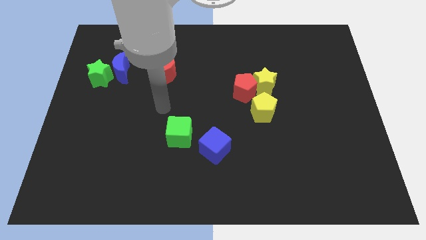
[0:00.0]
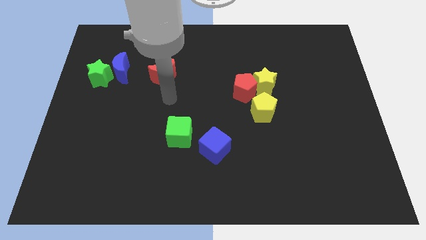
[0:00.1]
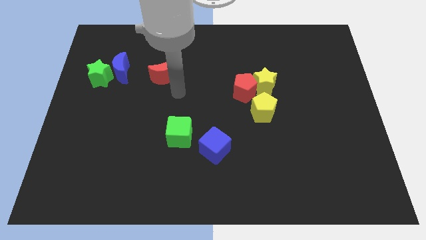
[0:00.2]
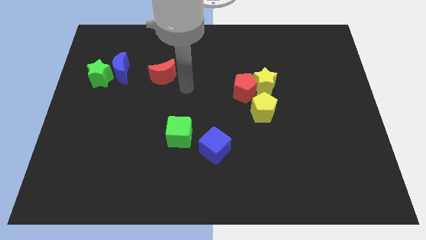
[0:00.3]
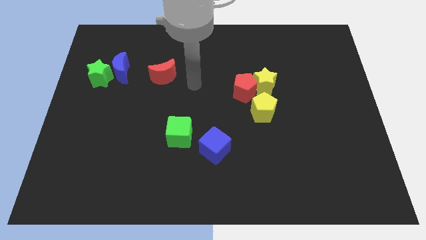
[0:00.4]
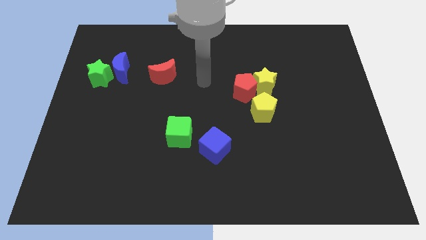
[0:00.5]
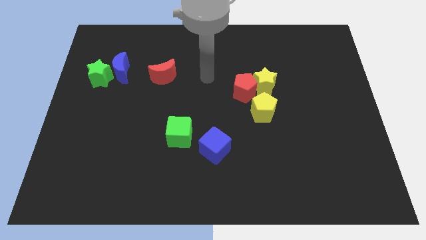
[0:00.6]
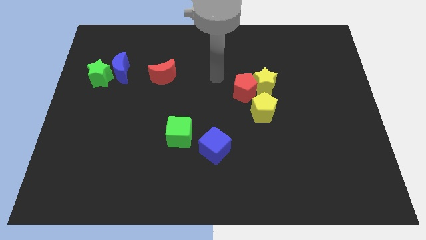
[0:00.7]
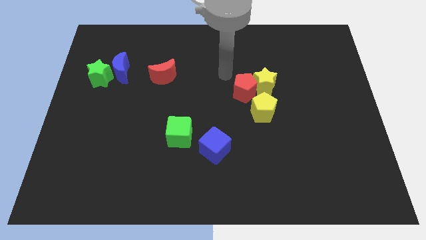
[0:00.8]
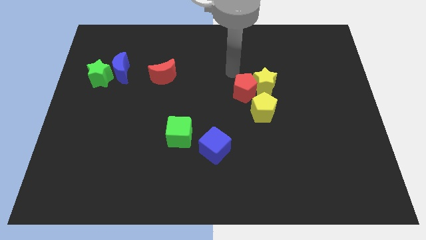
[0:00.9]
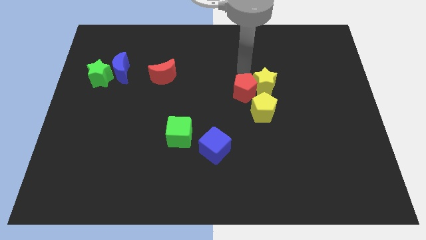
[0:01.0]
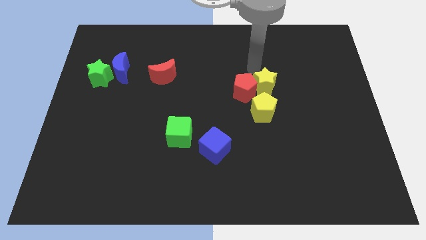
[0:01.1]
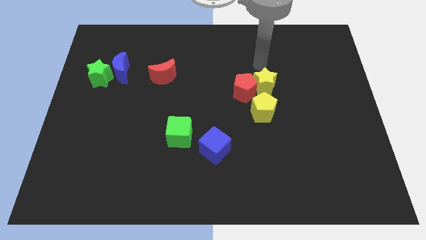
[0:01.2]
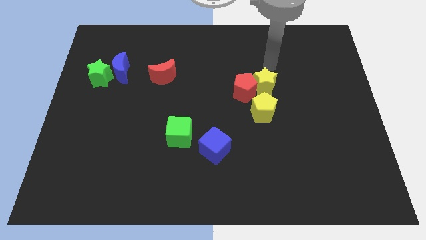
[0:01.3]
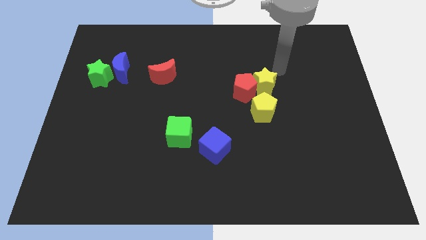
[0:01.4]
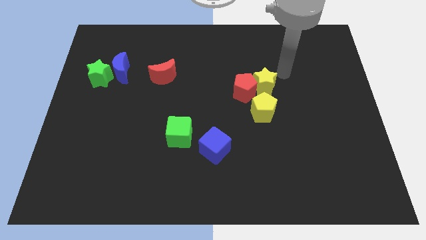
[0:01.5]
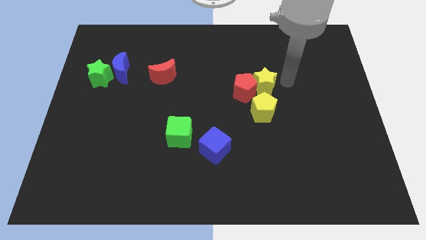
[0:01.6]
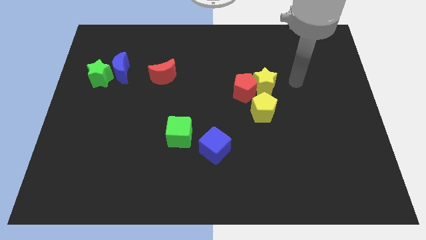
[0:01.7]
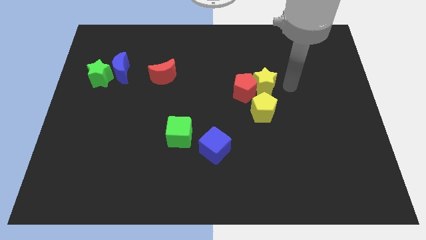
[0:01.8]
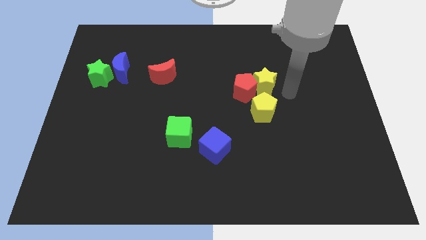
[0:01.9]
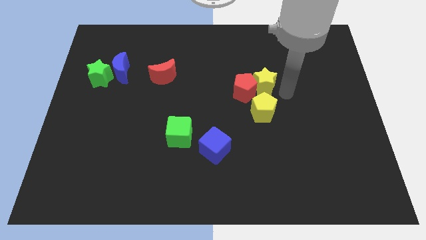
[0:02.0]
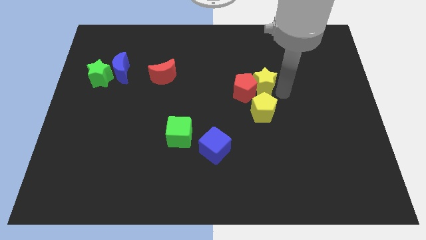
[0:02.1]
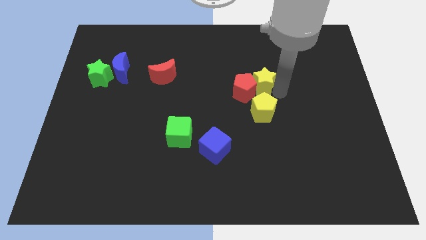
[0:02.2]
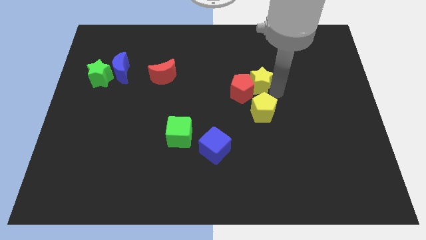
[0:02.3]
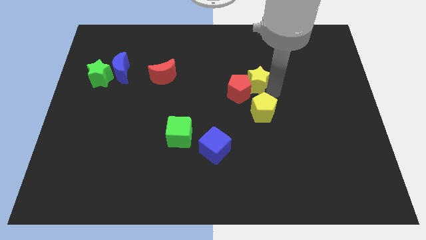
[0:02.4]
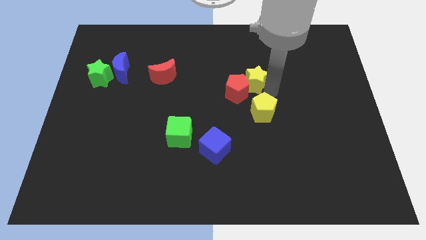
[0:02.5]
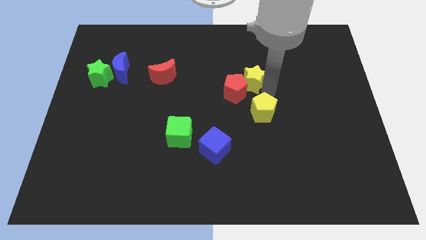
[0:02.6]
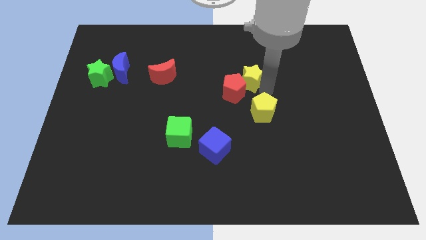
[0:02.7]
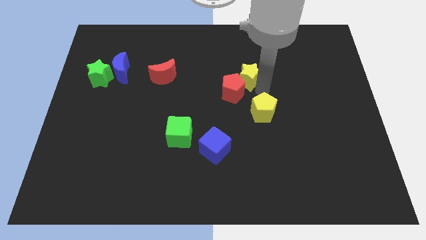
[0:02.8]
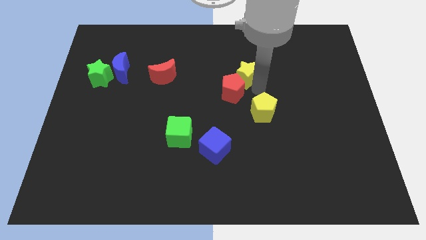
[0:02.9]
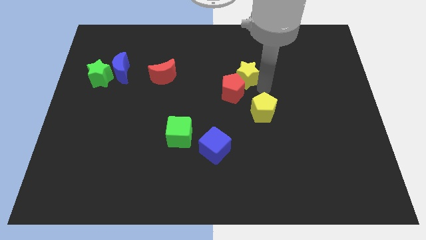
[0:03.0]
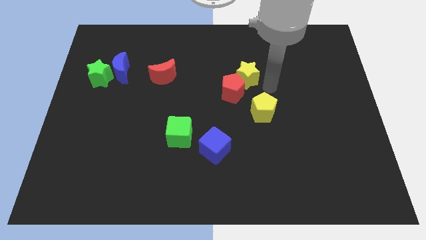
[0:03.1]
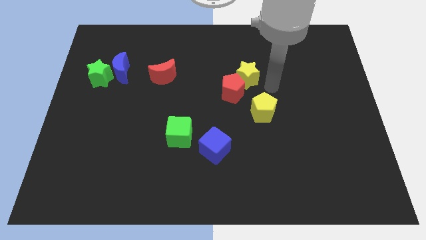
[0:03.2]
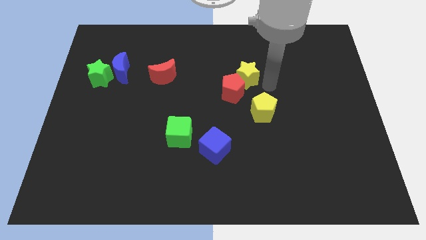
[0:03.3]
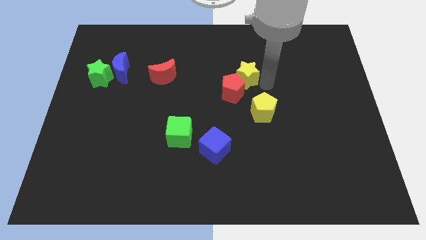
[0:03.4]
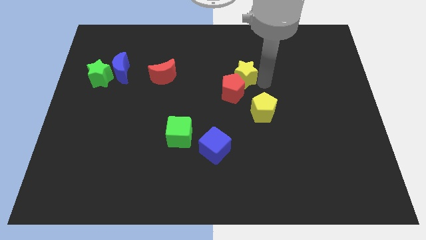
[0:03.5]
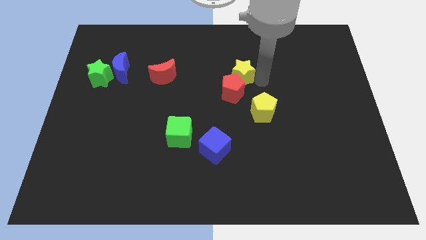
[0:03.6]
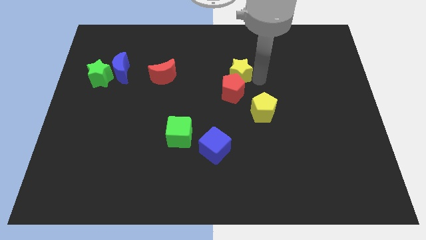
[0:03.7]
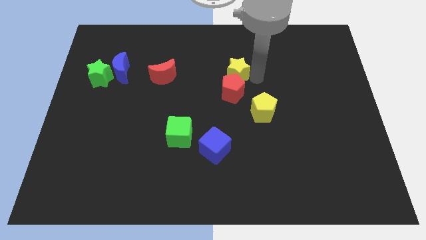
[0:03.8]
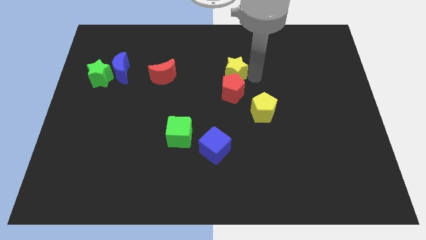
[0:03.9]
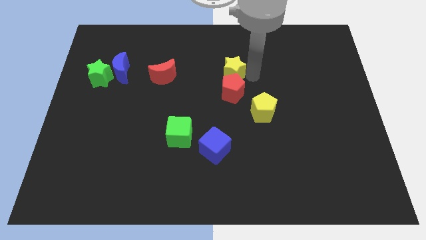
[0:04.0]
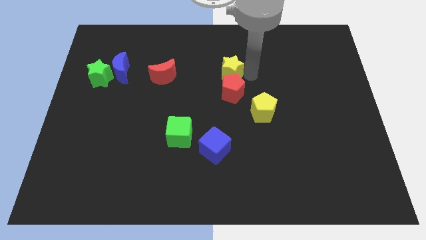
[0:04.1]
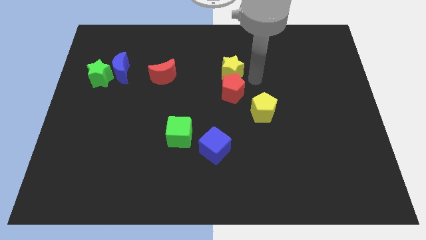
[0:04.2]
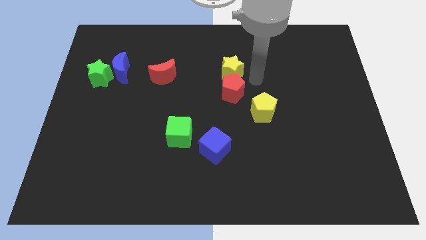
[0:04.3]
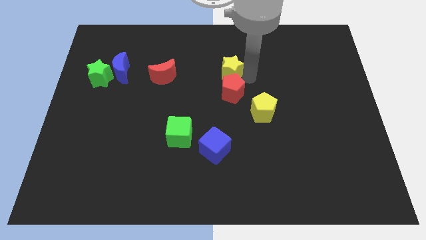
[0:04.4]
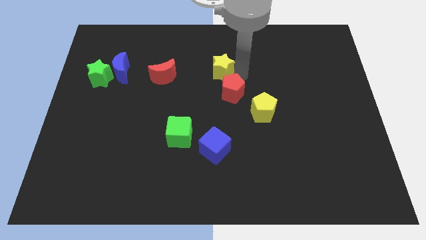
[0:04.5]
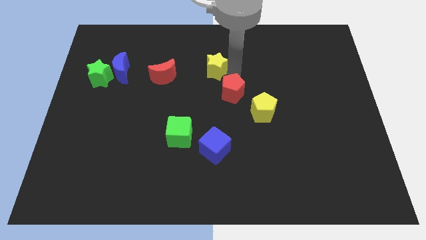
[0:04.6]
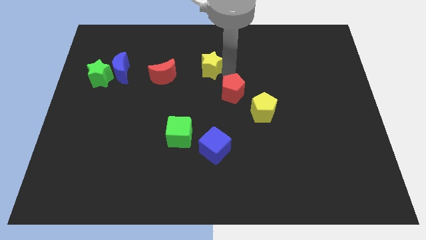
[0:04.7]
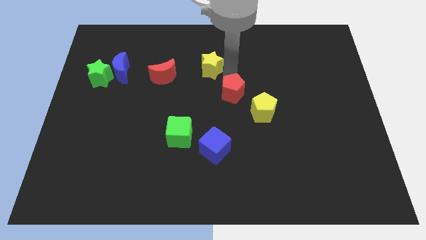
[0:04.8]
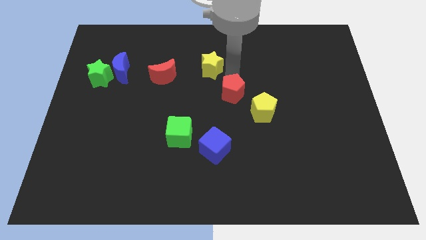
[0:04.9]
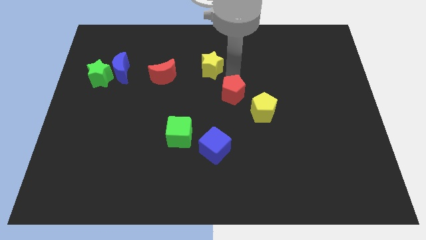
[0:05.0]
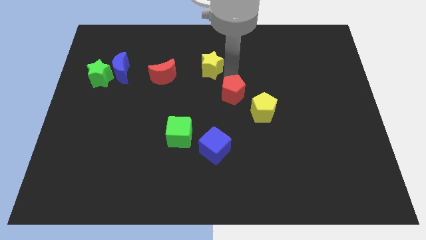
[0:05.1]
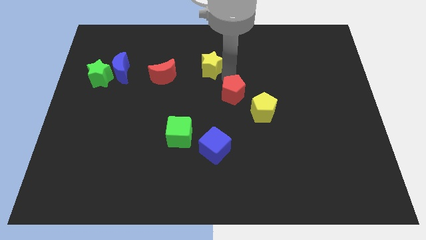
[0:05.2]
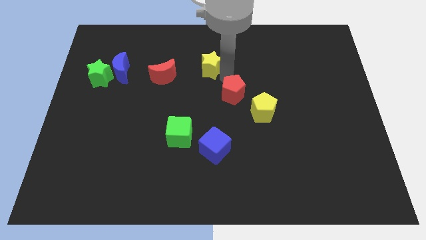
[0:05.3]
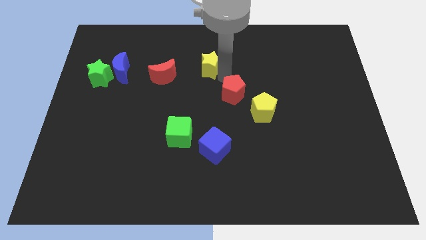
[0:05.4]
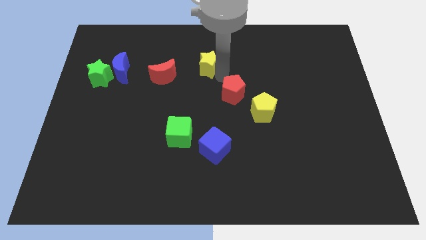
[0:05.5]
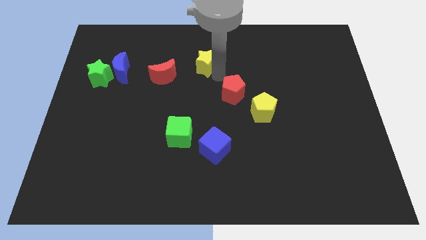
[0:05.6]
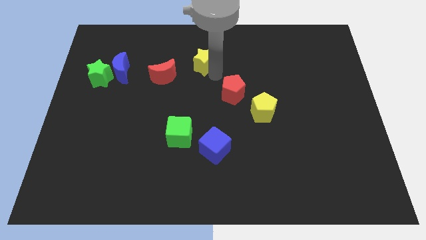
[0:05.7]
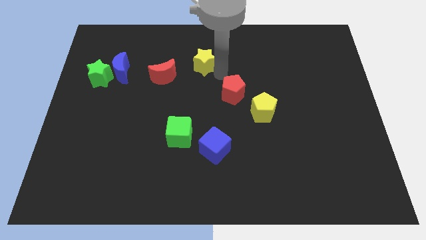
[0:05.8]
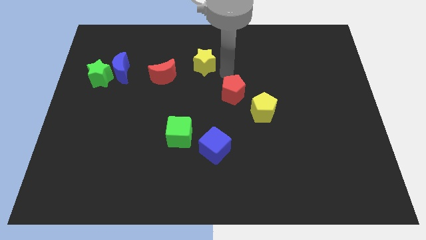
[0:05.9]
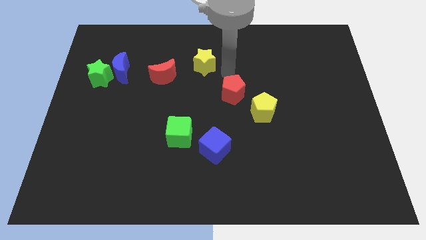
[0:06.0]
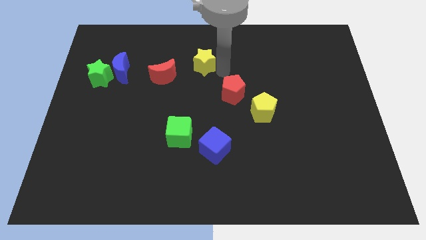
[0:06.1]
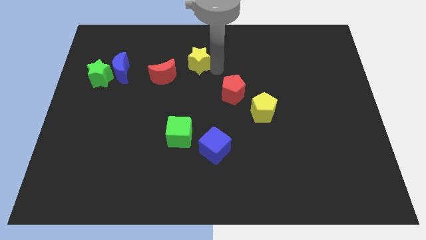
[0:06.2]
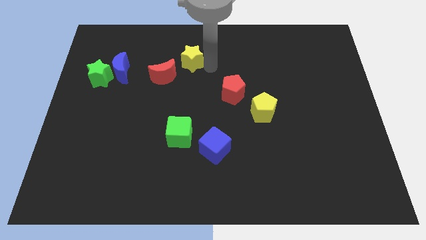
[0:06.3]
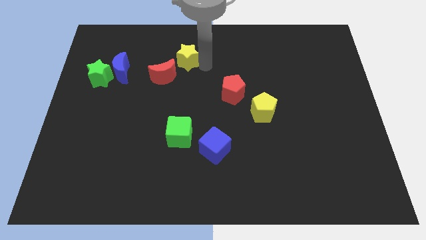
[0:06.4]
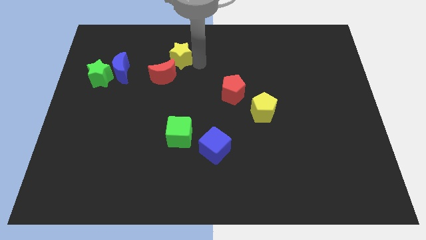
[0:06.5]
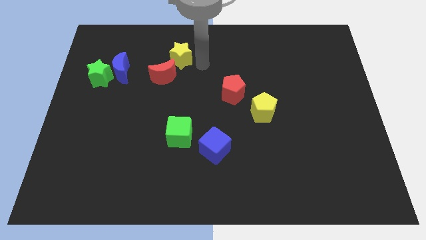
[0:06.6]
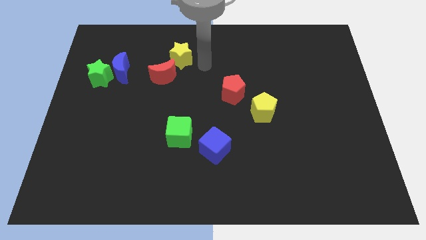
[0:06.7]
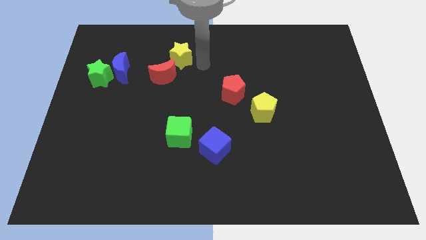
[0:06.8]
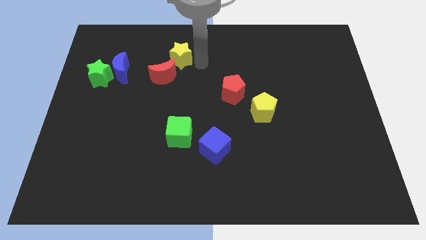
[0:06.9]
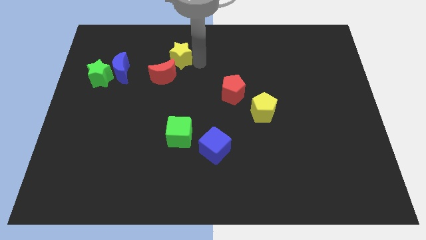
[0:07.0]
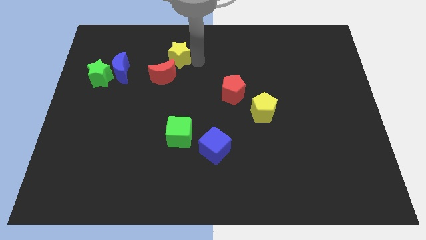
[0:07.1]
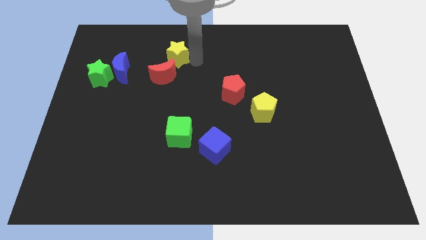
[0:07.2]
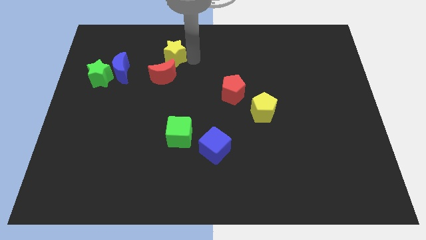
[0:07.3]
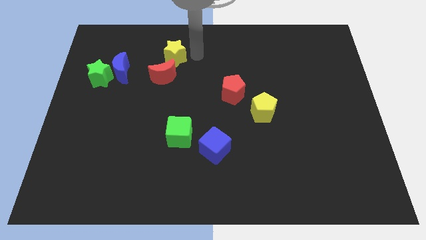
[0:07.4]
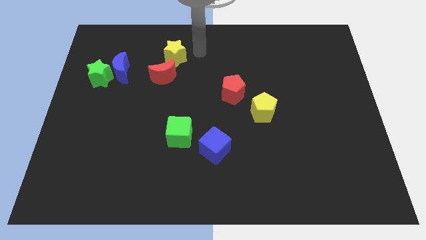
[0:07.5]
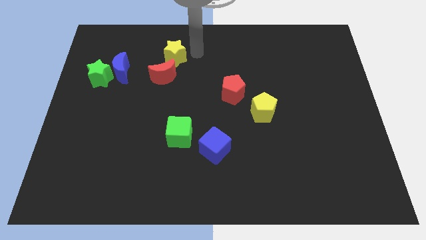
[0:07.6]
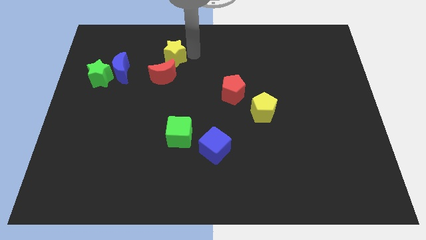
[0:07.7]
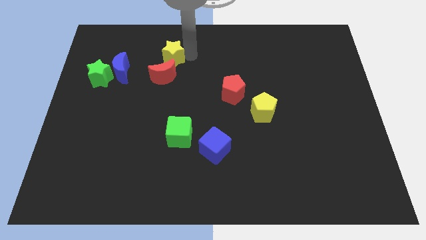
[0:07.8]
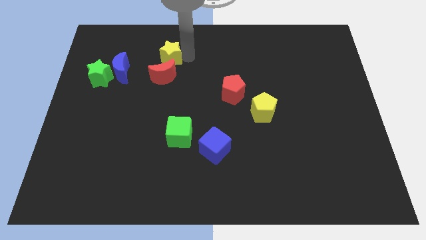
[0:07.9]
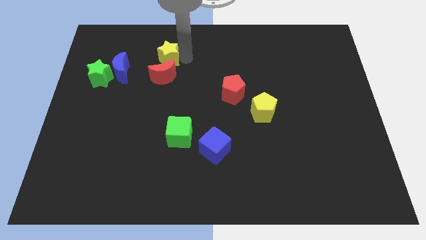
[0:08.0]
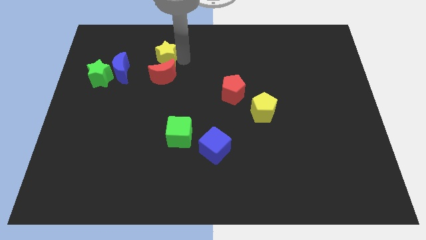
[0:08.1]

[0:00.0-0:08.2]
push the yellow star to the top left of the red moon
